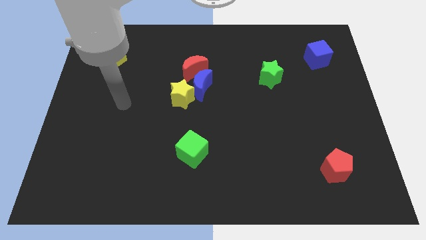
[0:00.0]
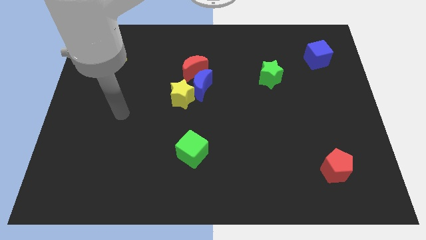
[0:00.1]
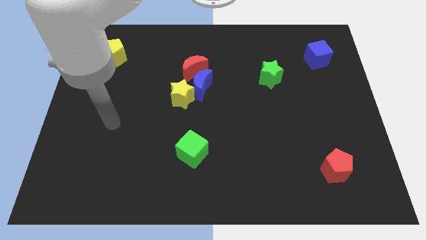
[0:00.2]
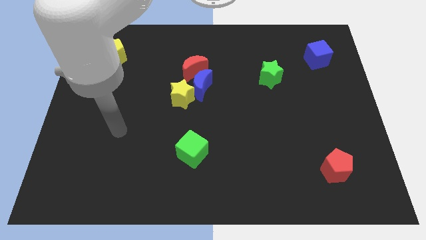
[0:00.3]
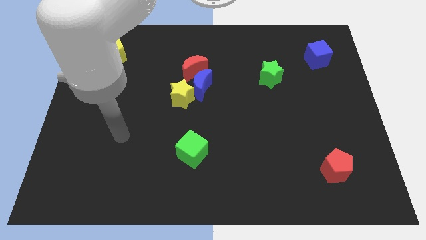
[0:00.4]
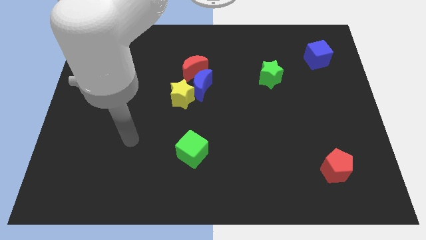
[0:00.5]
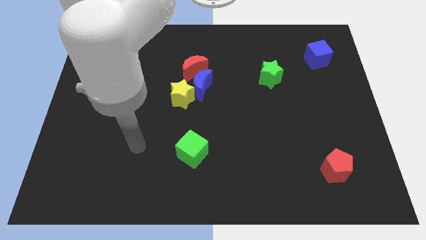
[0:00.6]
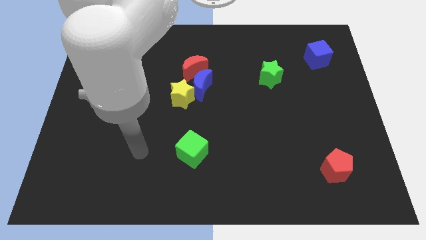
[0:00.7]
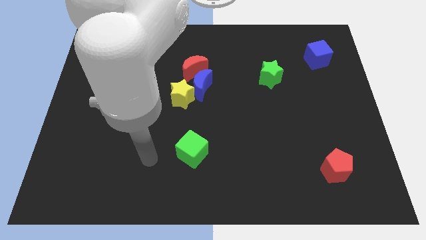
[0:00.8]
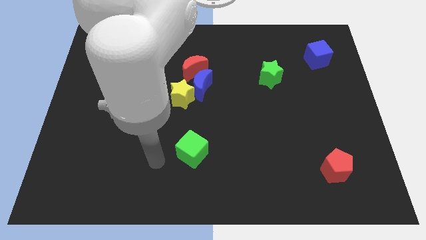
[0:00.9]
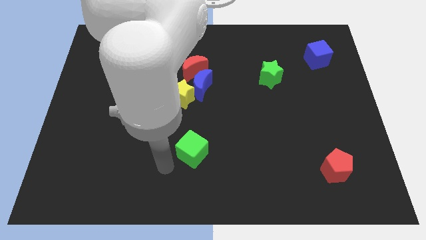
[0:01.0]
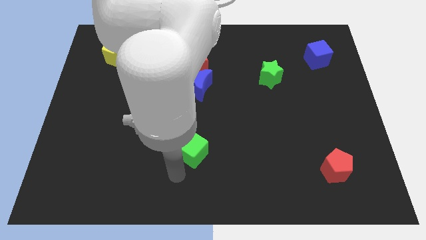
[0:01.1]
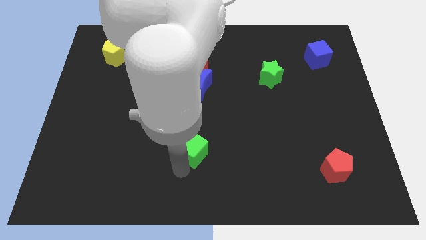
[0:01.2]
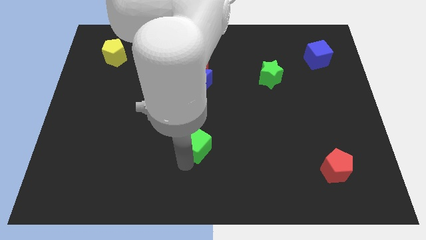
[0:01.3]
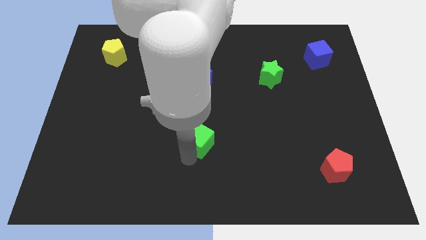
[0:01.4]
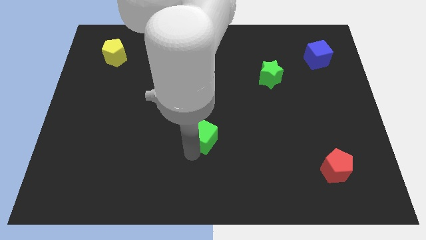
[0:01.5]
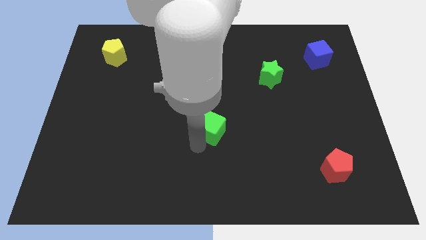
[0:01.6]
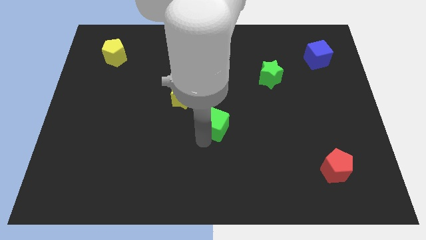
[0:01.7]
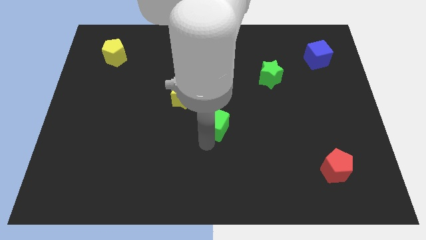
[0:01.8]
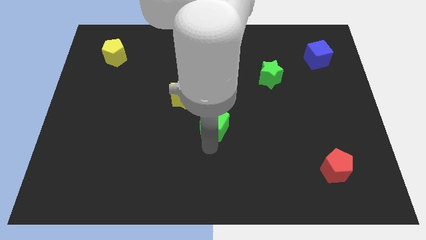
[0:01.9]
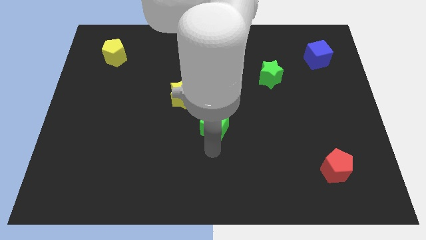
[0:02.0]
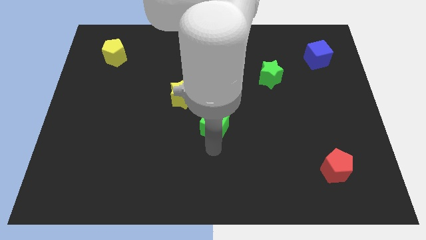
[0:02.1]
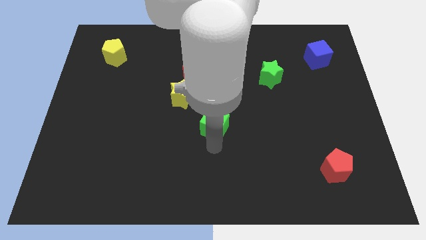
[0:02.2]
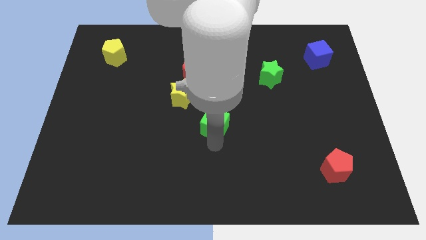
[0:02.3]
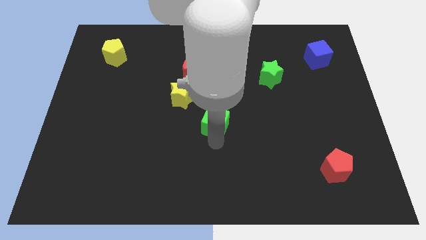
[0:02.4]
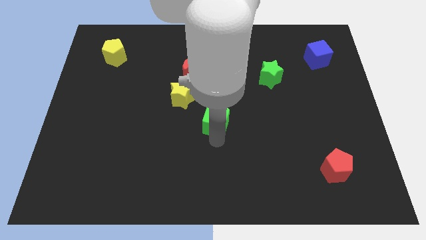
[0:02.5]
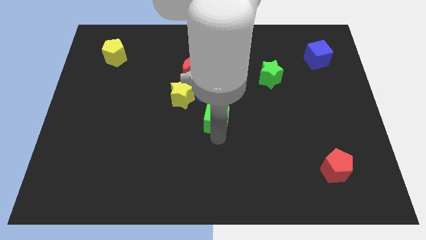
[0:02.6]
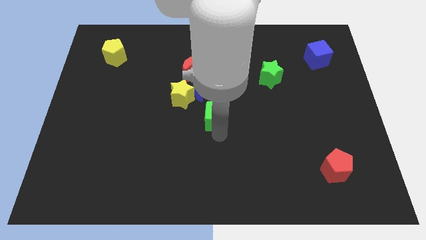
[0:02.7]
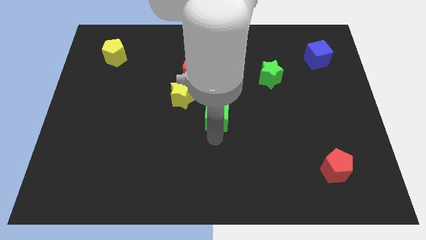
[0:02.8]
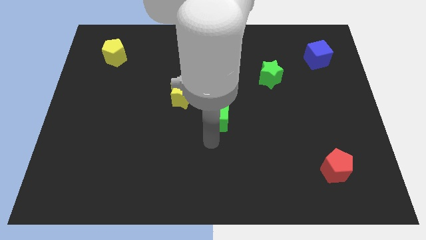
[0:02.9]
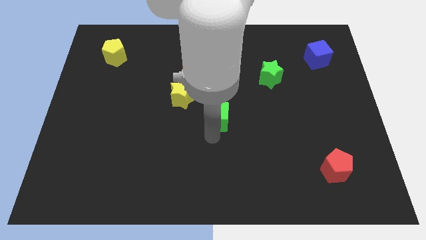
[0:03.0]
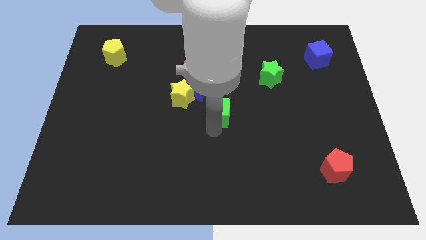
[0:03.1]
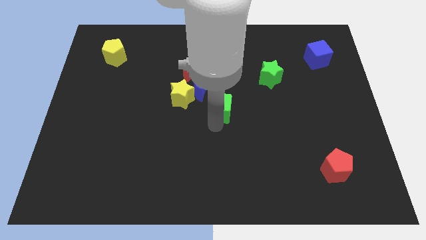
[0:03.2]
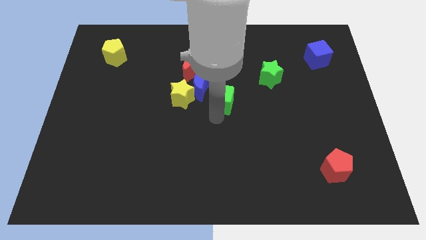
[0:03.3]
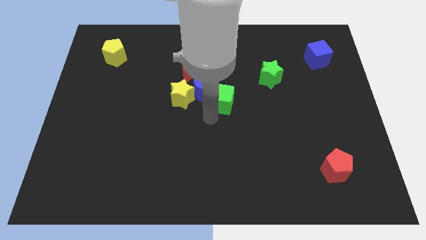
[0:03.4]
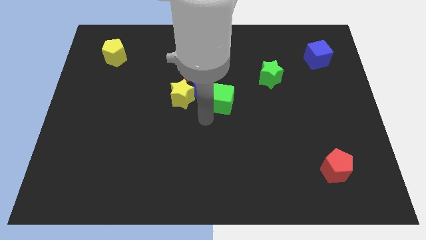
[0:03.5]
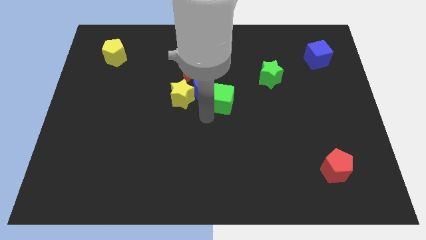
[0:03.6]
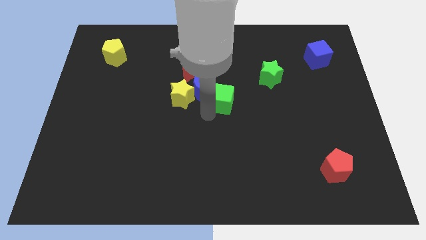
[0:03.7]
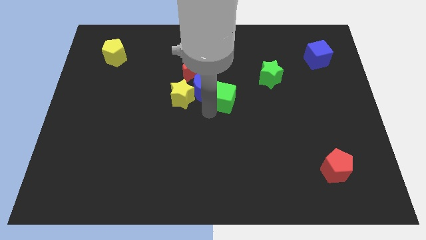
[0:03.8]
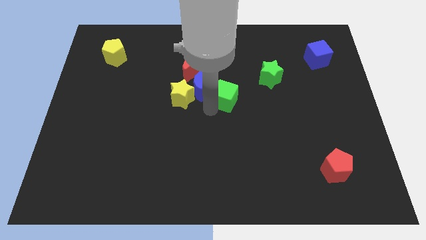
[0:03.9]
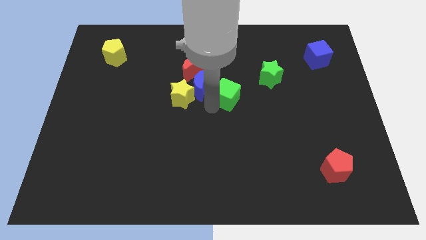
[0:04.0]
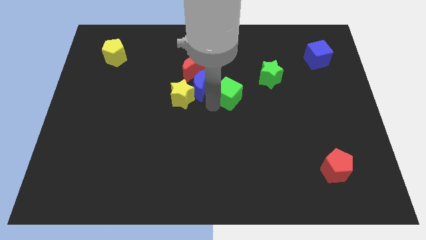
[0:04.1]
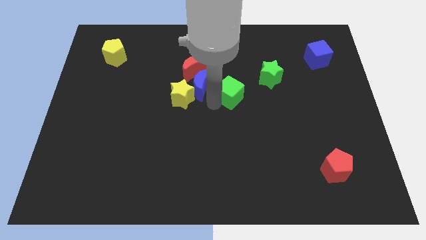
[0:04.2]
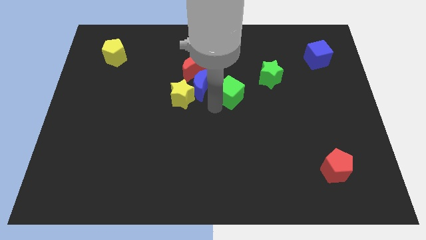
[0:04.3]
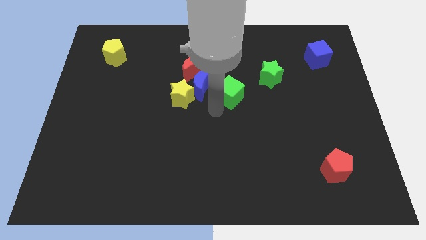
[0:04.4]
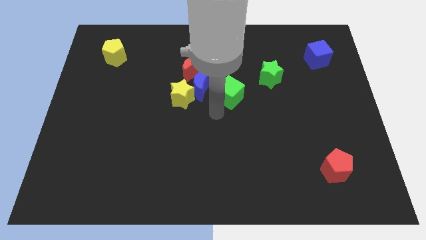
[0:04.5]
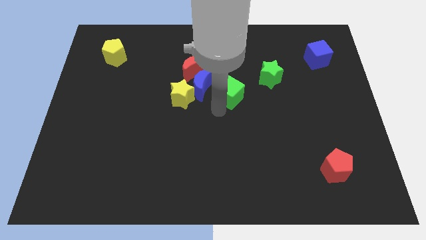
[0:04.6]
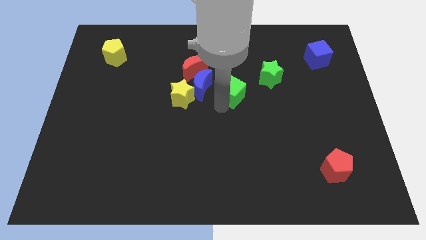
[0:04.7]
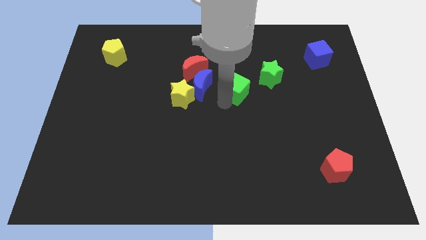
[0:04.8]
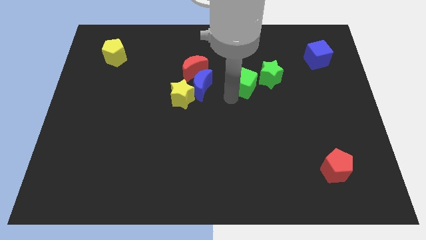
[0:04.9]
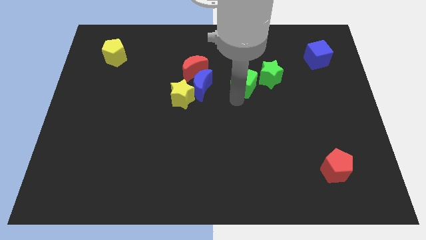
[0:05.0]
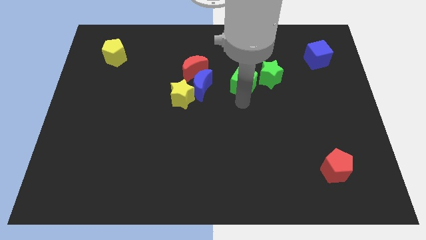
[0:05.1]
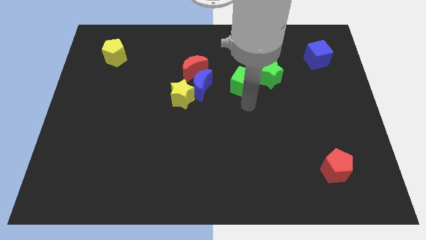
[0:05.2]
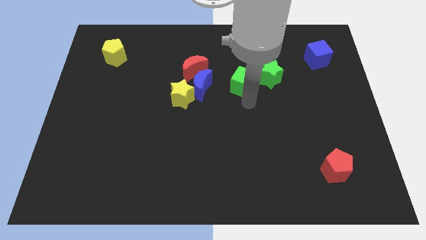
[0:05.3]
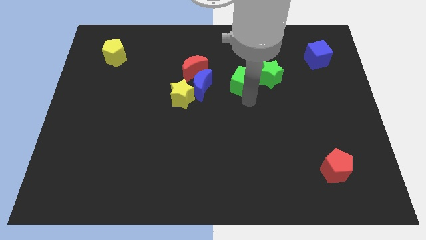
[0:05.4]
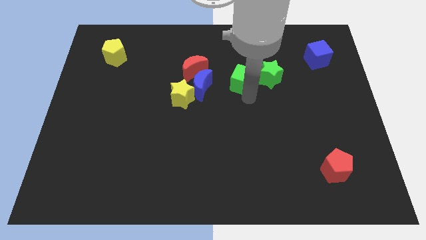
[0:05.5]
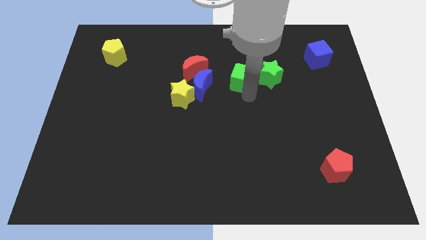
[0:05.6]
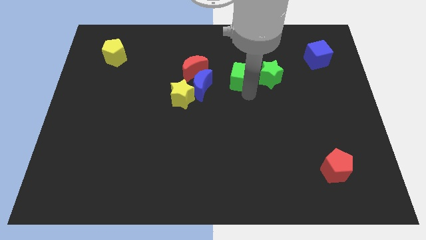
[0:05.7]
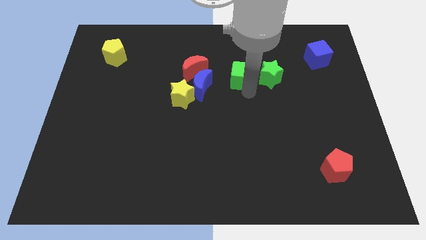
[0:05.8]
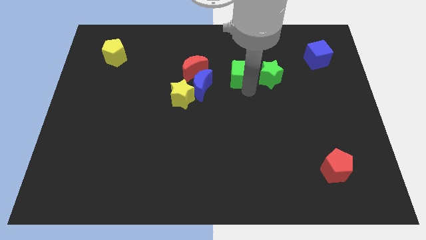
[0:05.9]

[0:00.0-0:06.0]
slide the green cube diagonally up and to the left of the green star

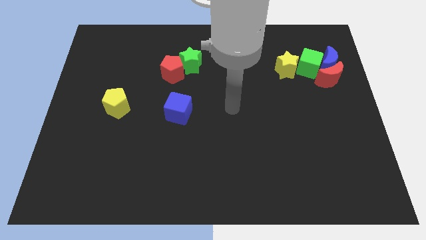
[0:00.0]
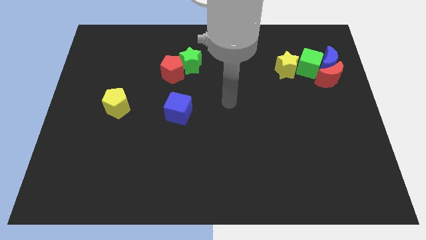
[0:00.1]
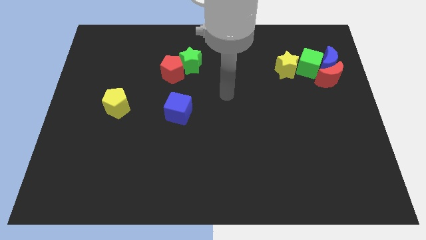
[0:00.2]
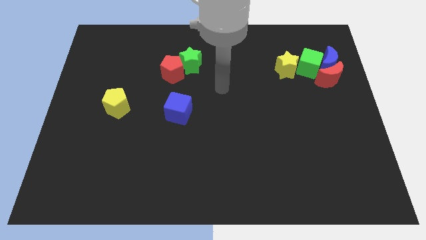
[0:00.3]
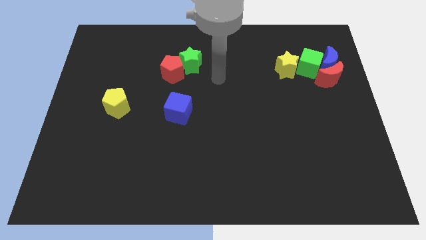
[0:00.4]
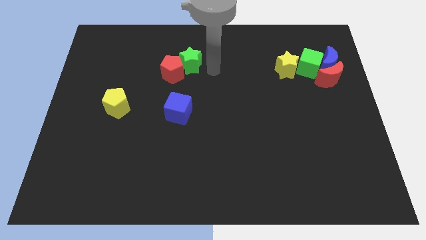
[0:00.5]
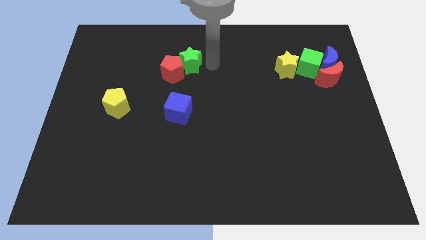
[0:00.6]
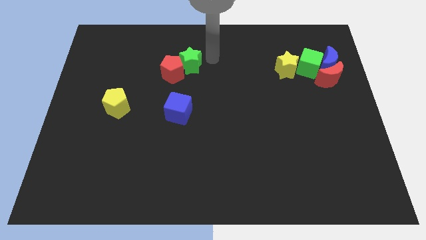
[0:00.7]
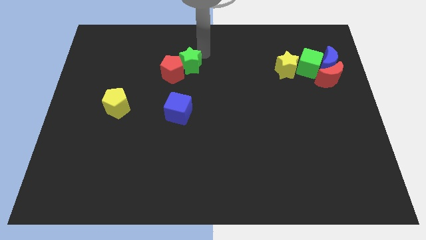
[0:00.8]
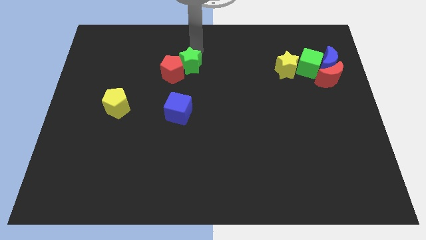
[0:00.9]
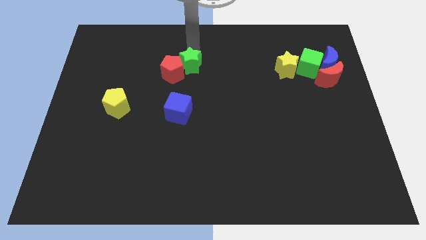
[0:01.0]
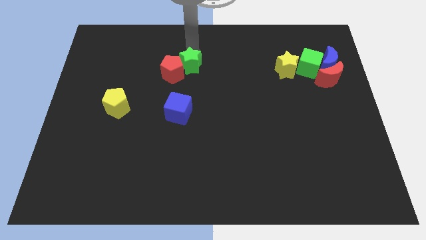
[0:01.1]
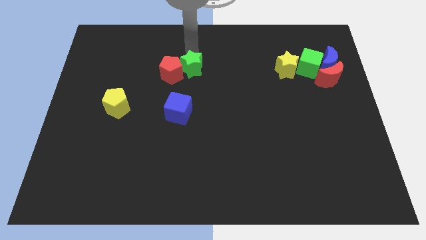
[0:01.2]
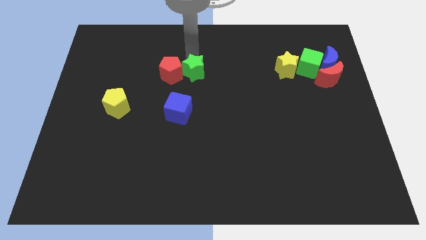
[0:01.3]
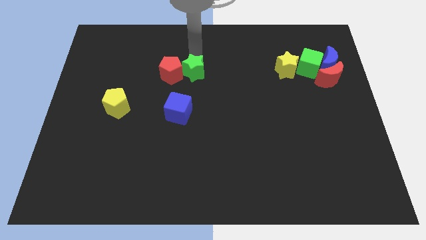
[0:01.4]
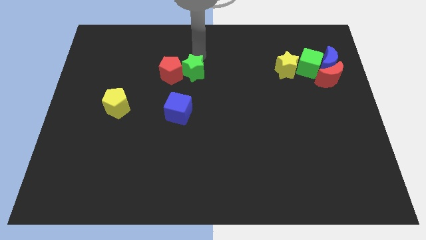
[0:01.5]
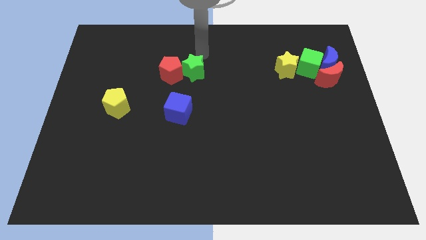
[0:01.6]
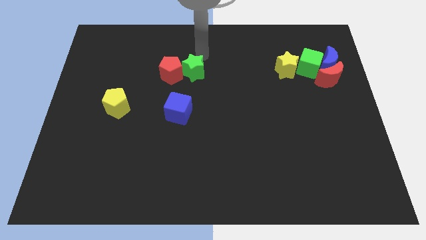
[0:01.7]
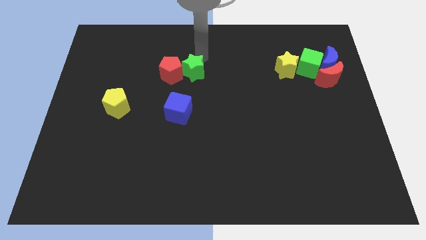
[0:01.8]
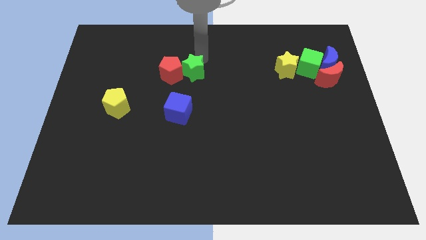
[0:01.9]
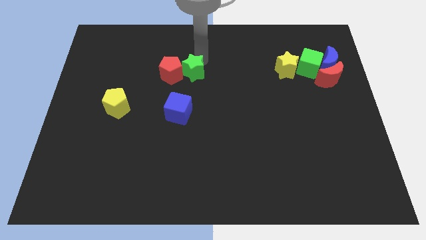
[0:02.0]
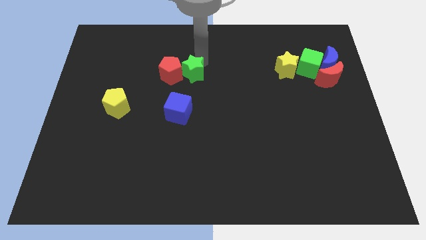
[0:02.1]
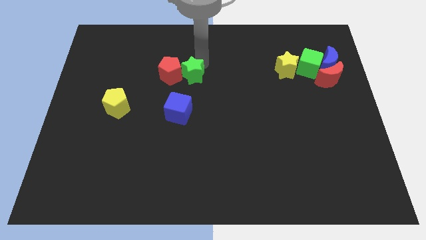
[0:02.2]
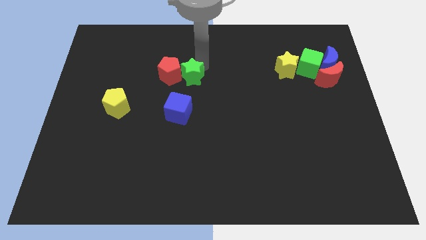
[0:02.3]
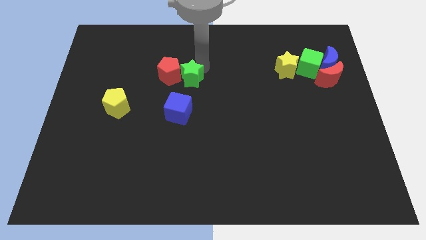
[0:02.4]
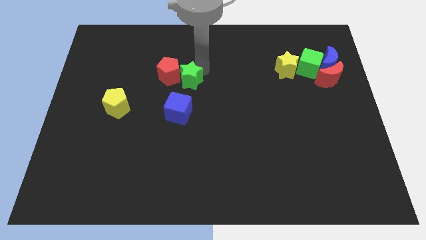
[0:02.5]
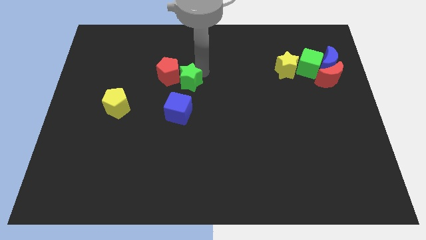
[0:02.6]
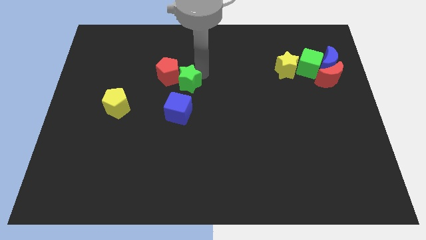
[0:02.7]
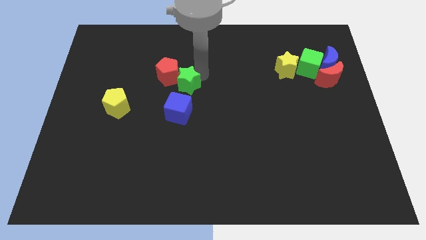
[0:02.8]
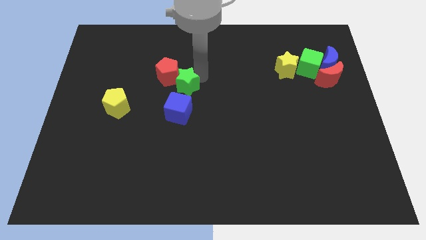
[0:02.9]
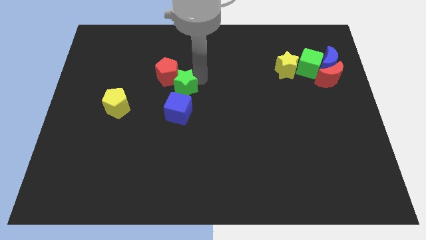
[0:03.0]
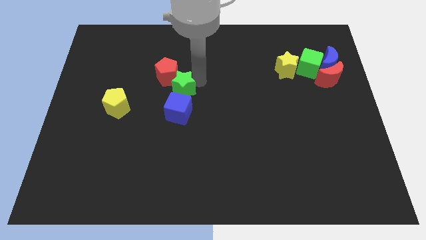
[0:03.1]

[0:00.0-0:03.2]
slide the green star to the bottom side of the red pentagon
